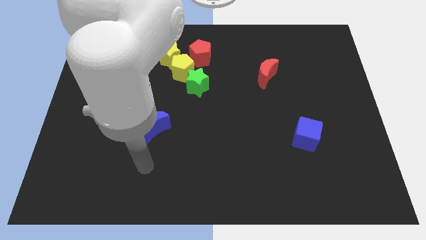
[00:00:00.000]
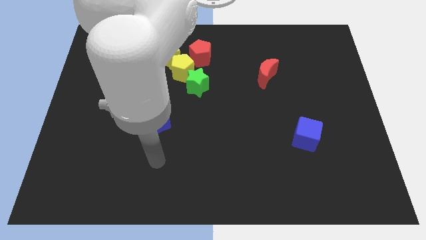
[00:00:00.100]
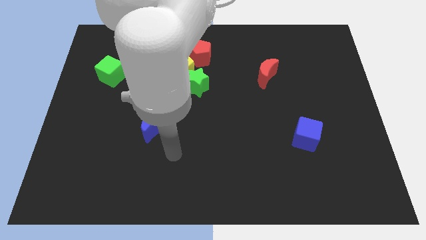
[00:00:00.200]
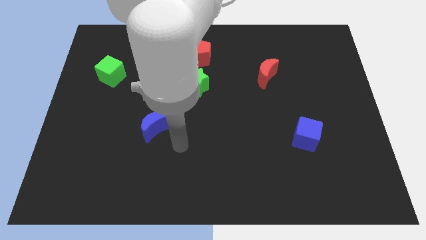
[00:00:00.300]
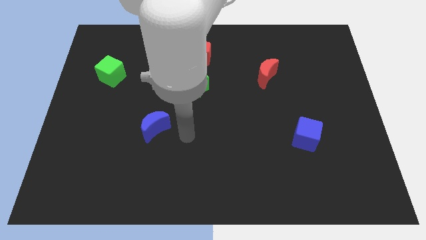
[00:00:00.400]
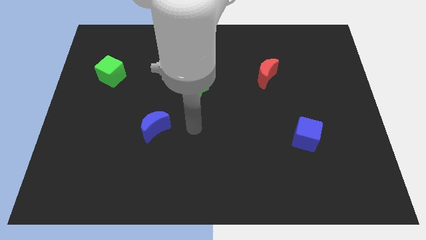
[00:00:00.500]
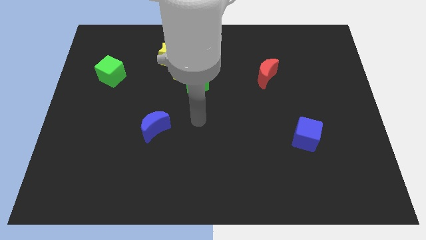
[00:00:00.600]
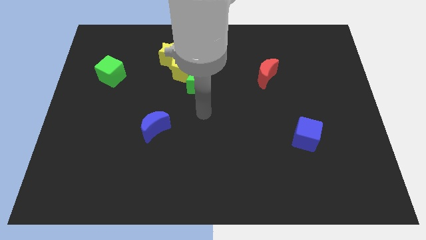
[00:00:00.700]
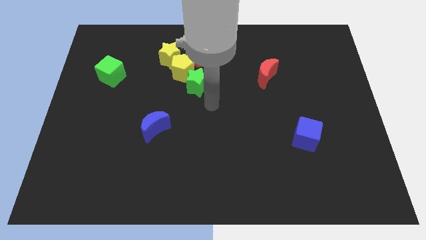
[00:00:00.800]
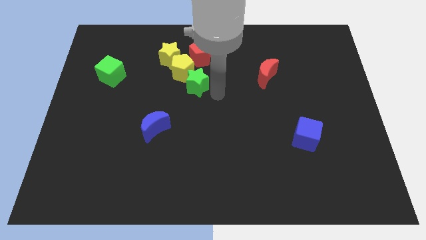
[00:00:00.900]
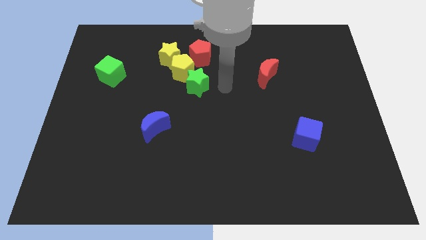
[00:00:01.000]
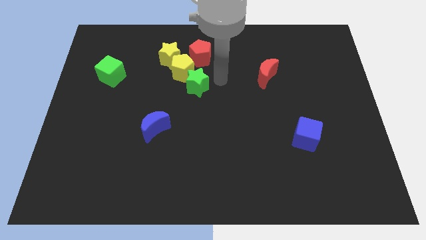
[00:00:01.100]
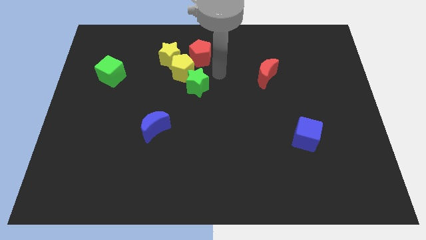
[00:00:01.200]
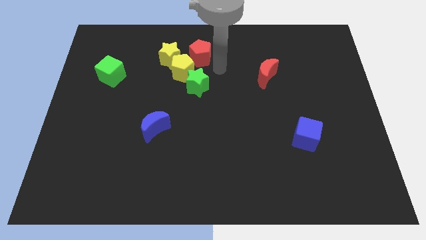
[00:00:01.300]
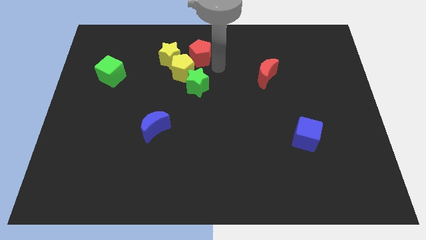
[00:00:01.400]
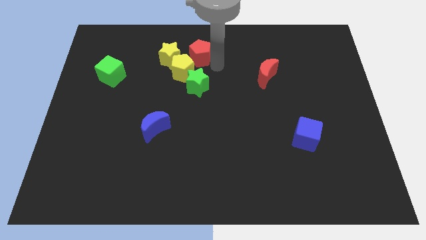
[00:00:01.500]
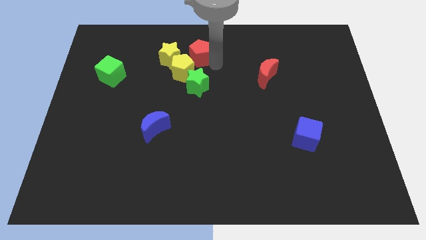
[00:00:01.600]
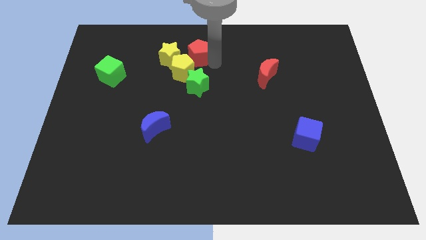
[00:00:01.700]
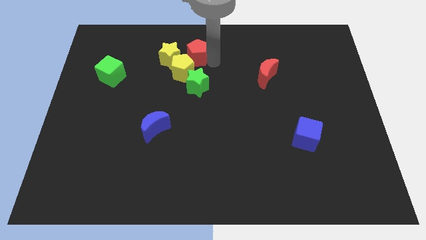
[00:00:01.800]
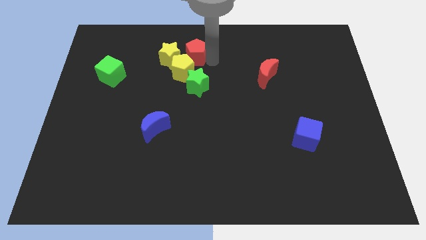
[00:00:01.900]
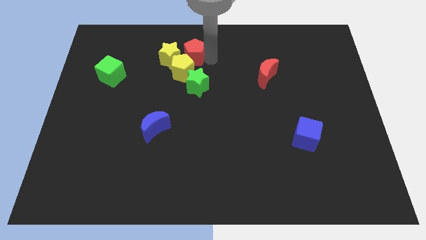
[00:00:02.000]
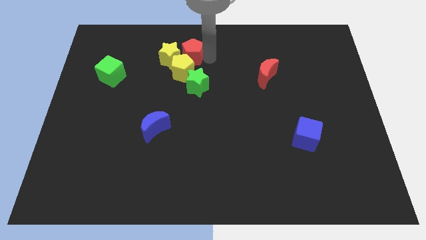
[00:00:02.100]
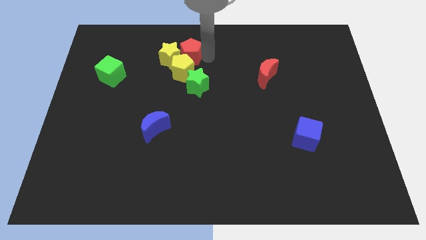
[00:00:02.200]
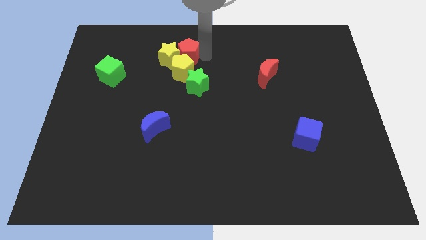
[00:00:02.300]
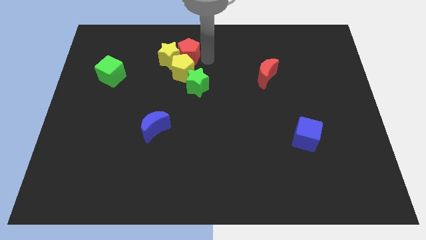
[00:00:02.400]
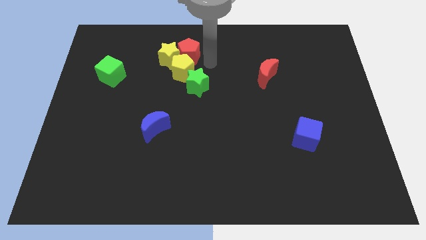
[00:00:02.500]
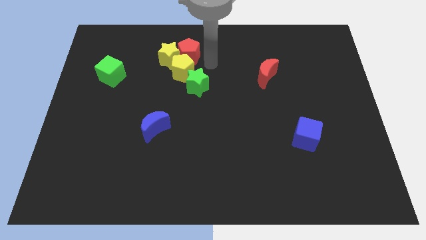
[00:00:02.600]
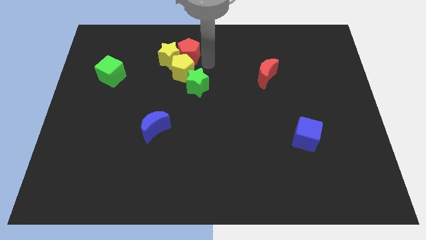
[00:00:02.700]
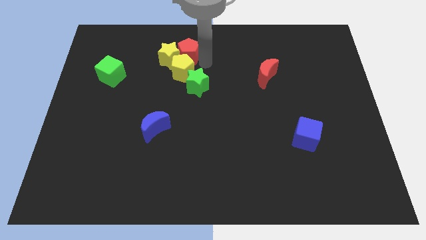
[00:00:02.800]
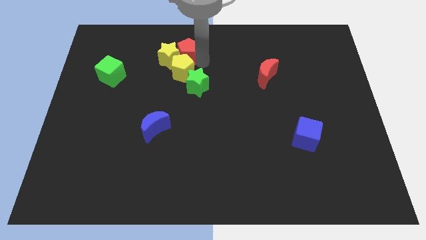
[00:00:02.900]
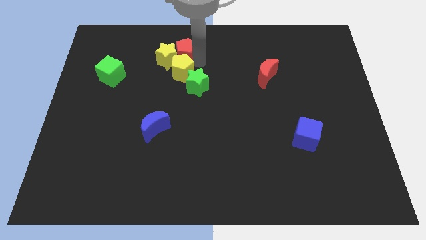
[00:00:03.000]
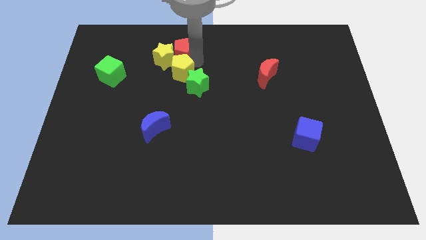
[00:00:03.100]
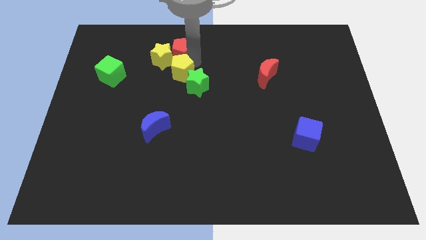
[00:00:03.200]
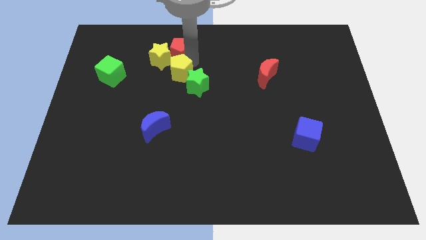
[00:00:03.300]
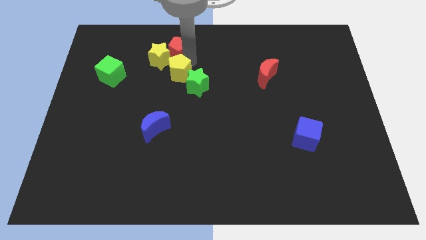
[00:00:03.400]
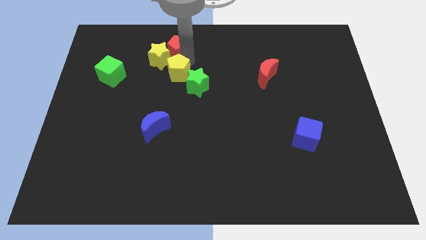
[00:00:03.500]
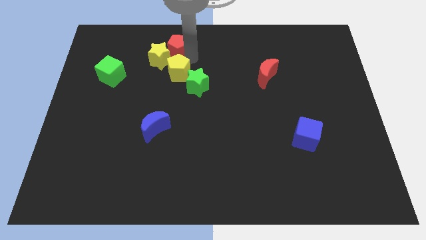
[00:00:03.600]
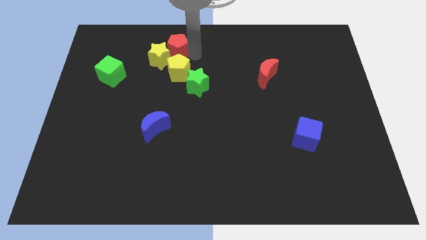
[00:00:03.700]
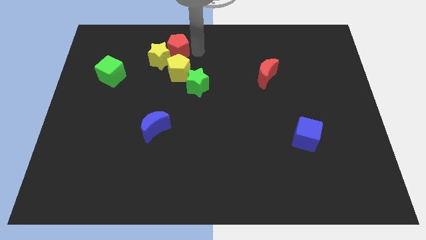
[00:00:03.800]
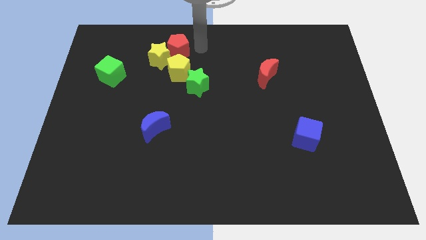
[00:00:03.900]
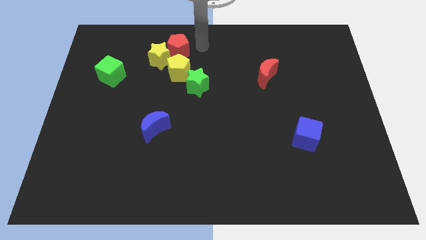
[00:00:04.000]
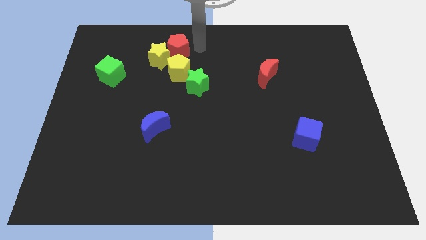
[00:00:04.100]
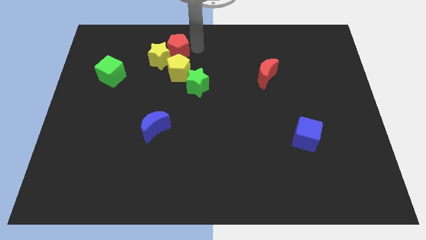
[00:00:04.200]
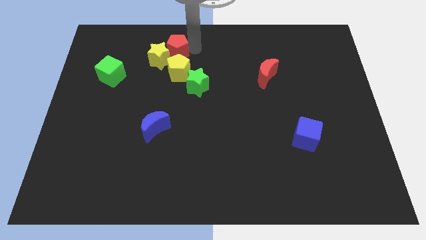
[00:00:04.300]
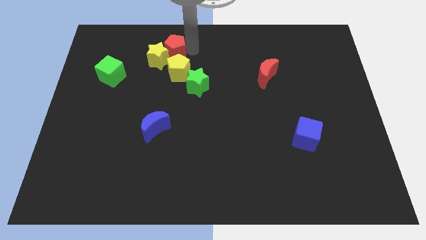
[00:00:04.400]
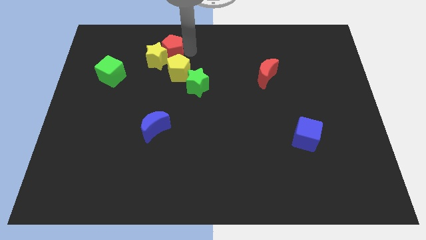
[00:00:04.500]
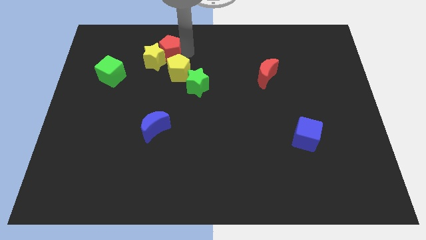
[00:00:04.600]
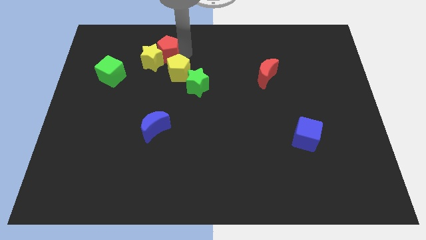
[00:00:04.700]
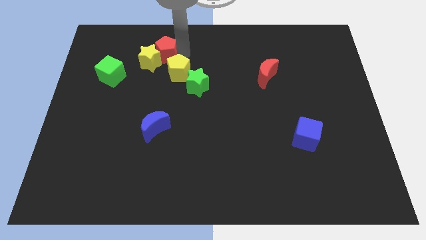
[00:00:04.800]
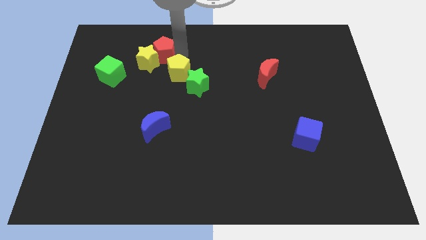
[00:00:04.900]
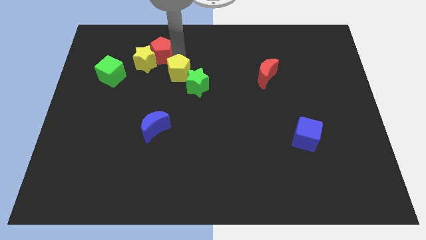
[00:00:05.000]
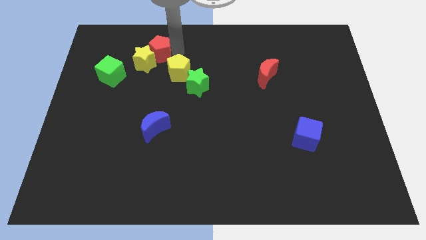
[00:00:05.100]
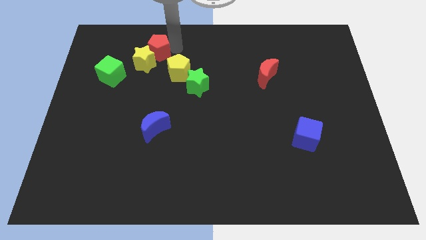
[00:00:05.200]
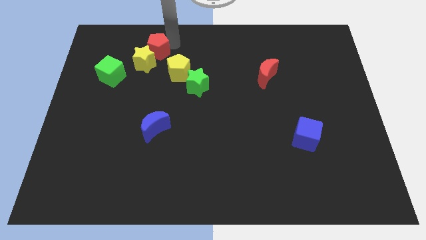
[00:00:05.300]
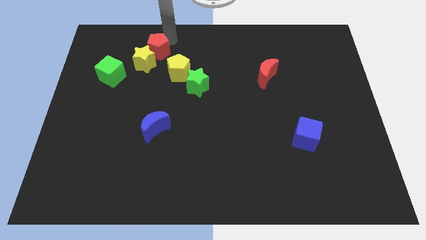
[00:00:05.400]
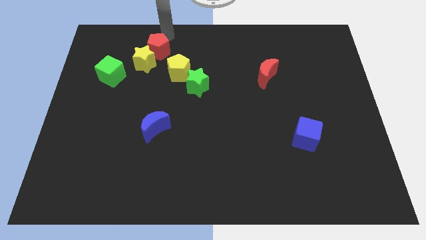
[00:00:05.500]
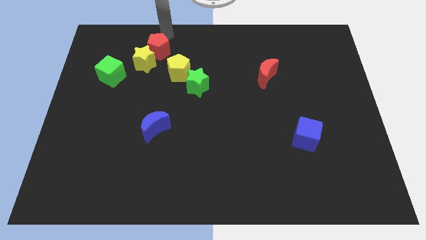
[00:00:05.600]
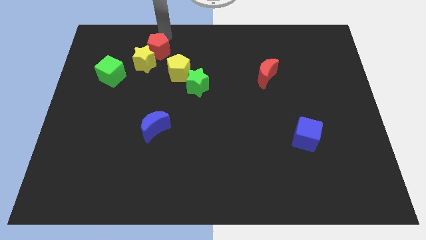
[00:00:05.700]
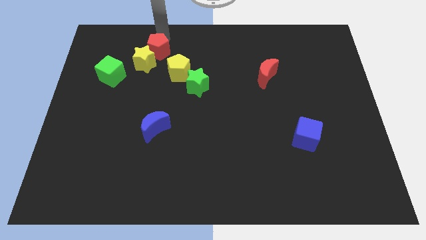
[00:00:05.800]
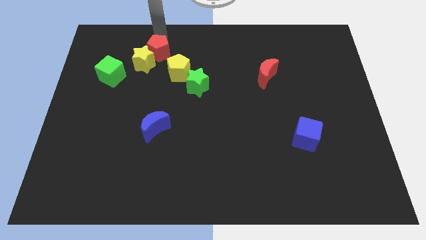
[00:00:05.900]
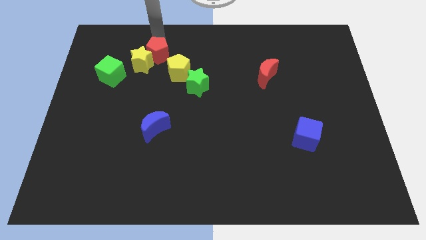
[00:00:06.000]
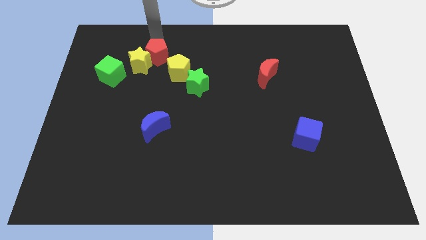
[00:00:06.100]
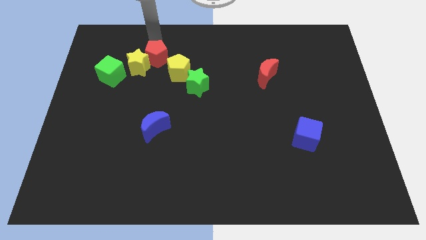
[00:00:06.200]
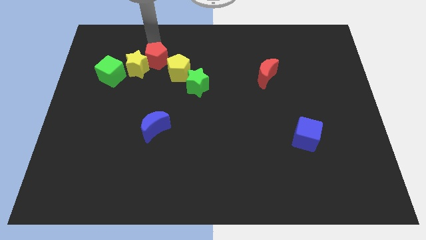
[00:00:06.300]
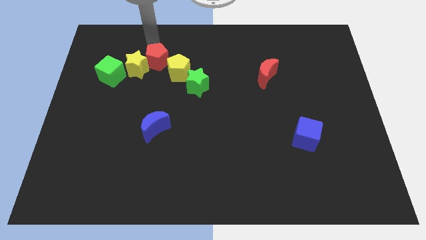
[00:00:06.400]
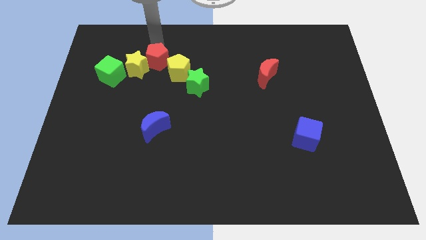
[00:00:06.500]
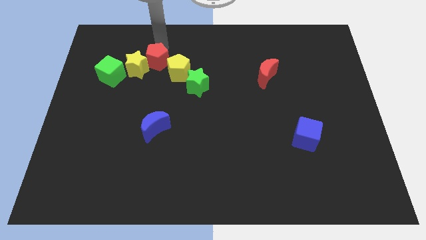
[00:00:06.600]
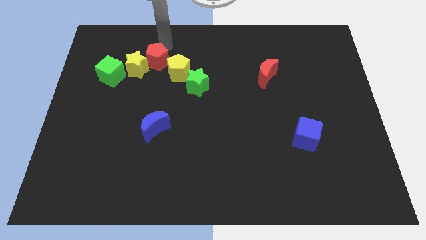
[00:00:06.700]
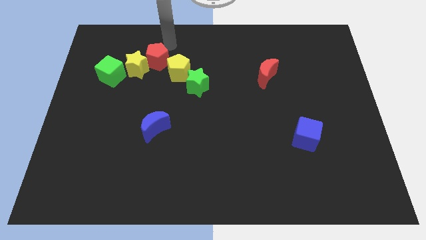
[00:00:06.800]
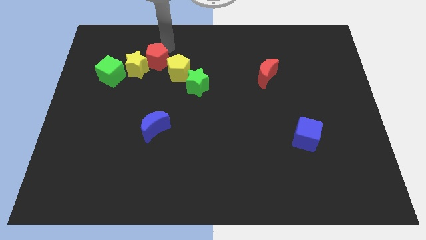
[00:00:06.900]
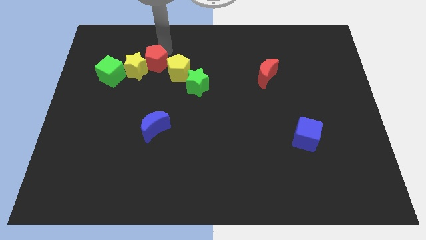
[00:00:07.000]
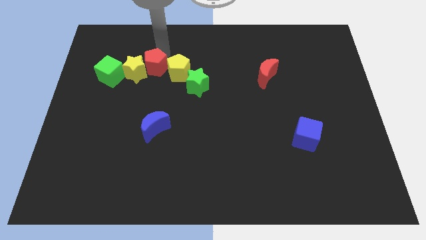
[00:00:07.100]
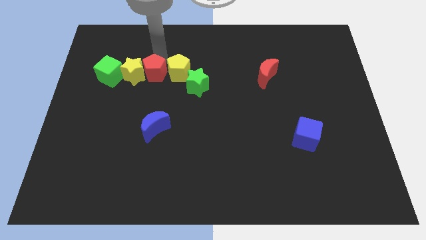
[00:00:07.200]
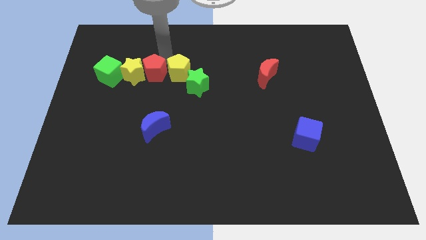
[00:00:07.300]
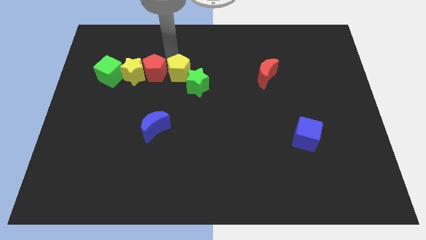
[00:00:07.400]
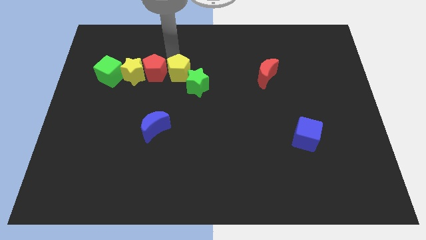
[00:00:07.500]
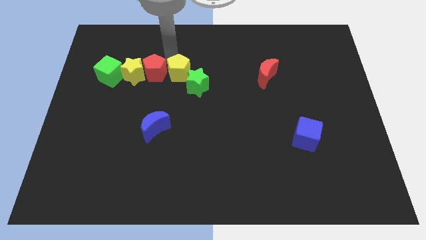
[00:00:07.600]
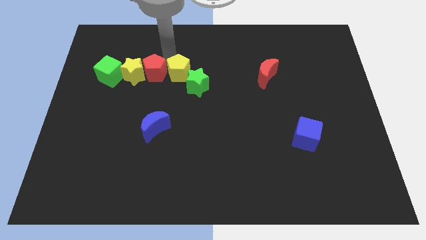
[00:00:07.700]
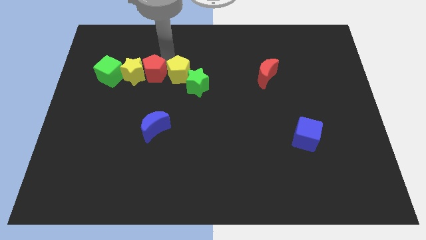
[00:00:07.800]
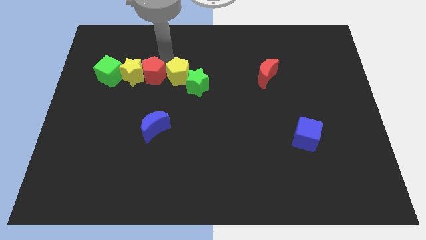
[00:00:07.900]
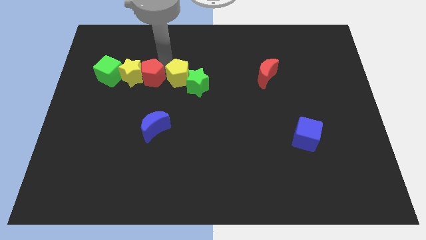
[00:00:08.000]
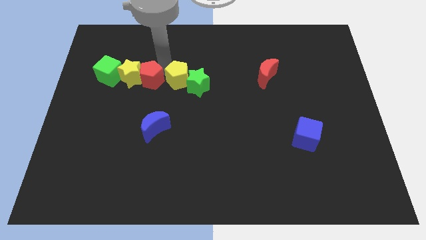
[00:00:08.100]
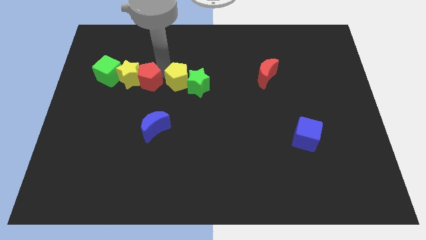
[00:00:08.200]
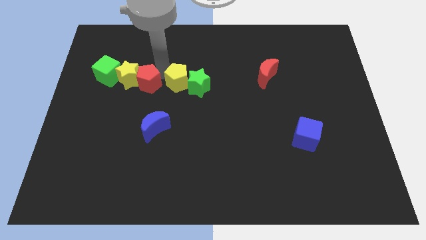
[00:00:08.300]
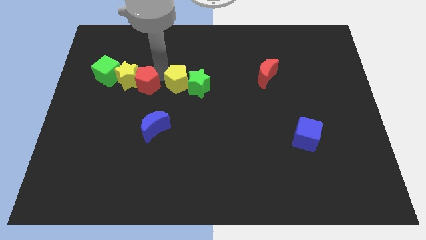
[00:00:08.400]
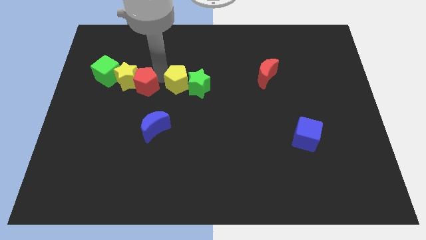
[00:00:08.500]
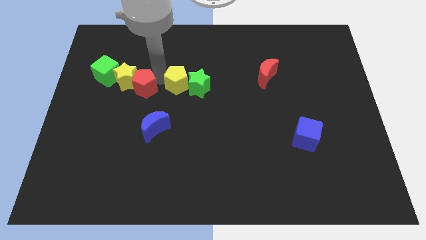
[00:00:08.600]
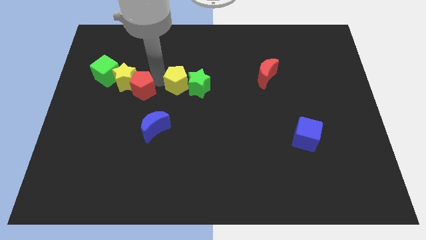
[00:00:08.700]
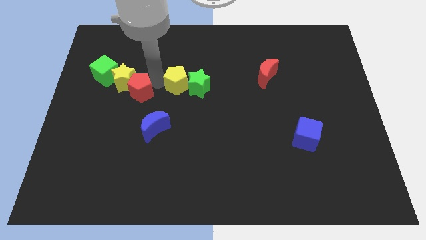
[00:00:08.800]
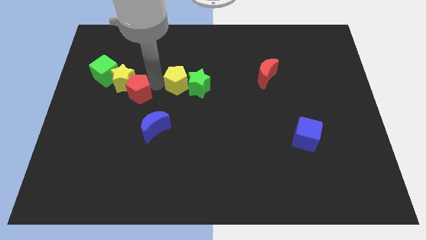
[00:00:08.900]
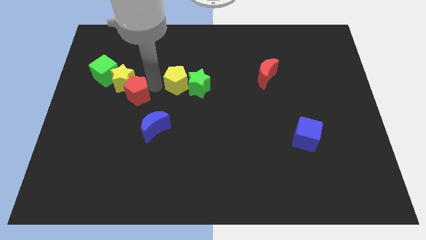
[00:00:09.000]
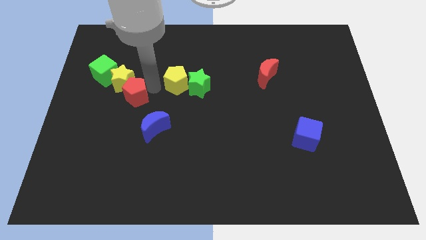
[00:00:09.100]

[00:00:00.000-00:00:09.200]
slide the red pentagon down and to the left
